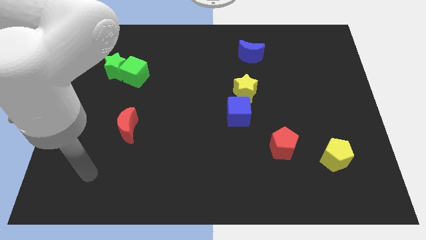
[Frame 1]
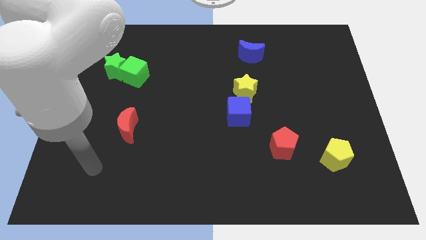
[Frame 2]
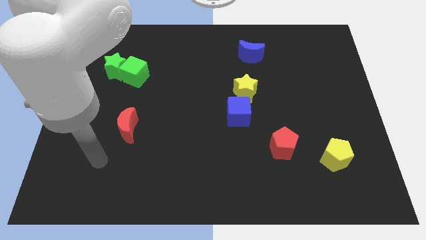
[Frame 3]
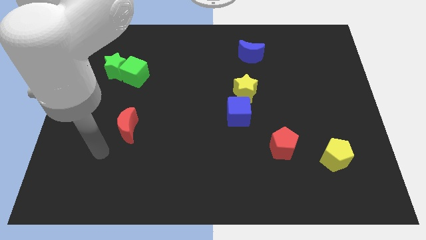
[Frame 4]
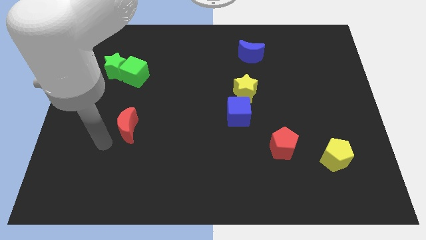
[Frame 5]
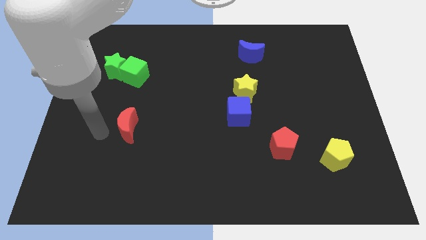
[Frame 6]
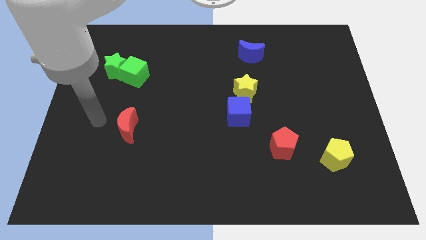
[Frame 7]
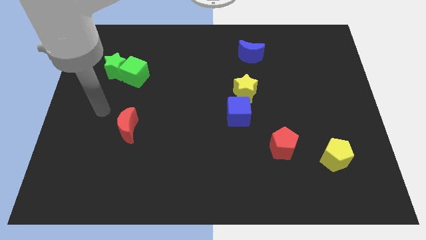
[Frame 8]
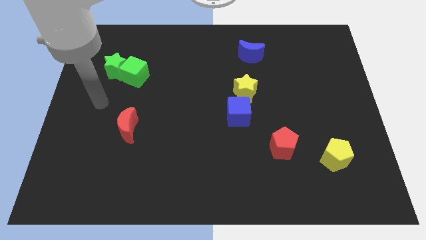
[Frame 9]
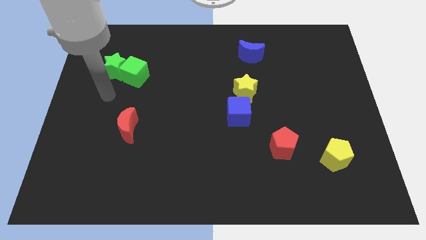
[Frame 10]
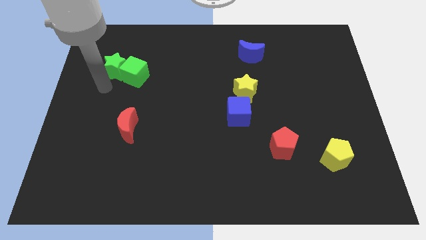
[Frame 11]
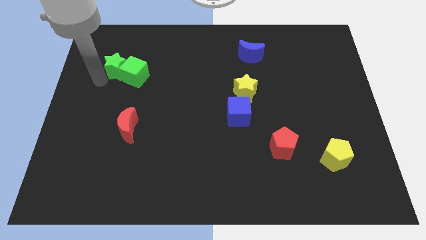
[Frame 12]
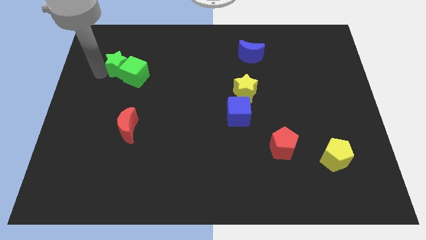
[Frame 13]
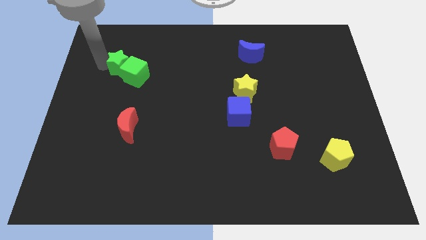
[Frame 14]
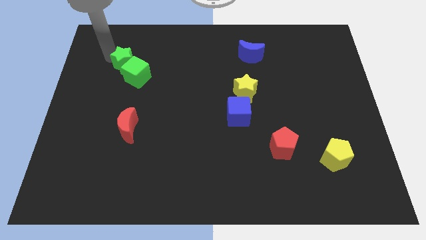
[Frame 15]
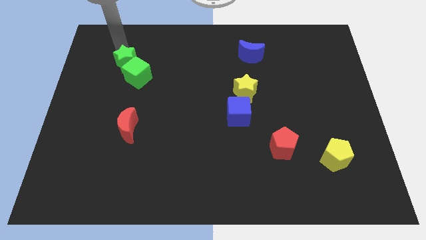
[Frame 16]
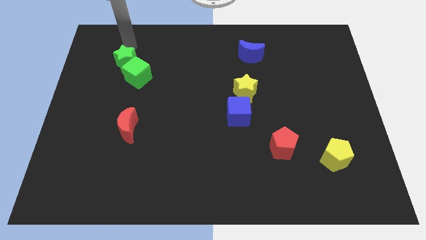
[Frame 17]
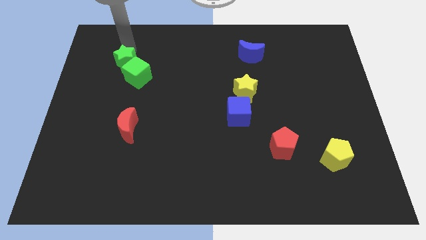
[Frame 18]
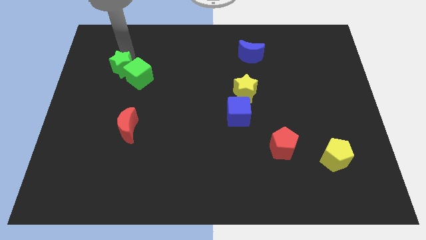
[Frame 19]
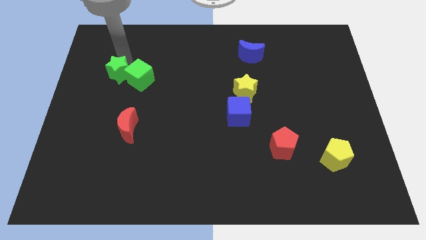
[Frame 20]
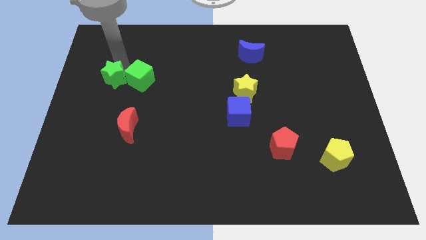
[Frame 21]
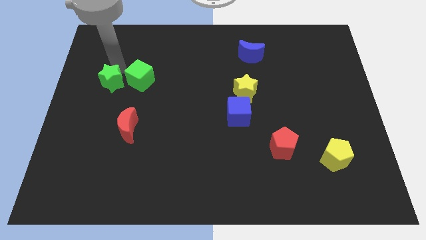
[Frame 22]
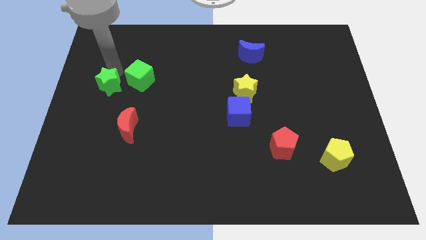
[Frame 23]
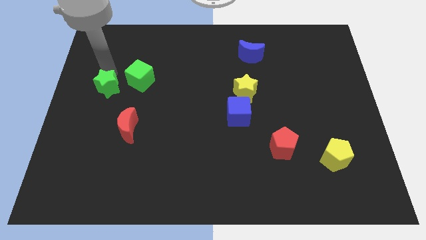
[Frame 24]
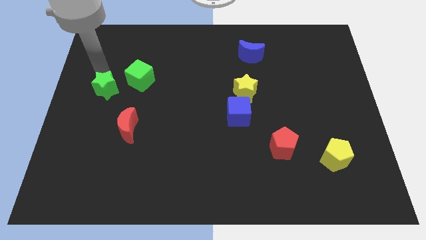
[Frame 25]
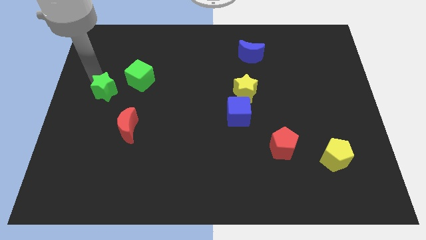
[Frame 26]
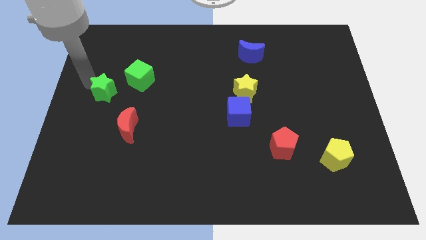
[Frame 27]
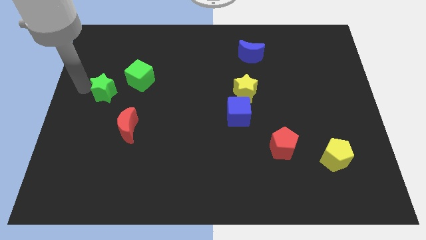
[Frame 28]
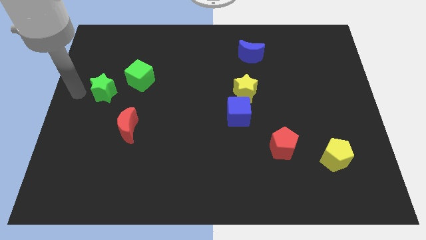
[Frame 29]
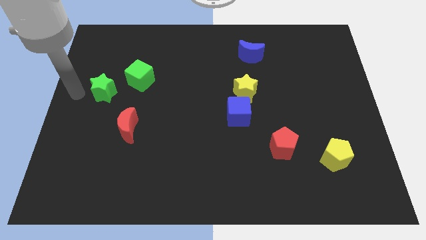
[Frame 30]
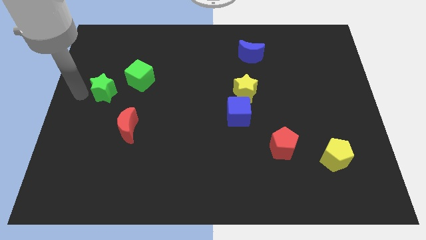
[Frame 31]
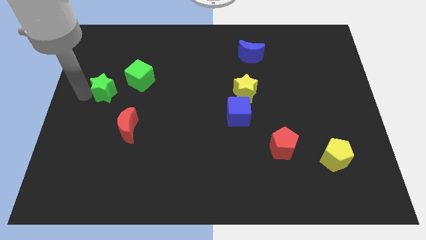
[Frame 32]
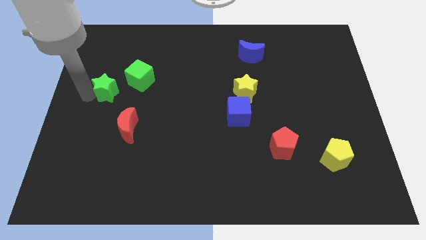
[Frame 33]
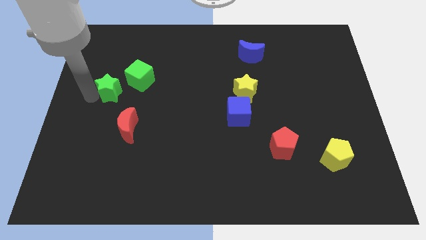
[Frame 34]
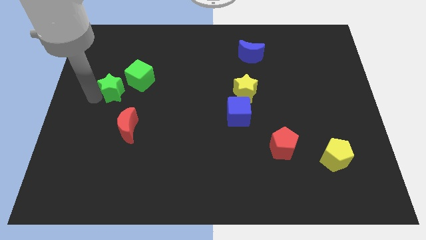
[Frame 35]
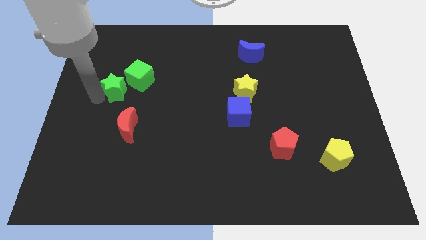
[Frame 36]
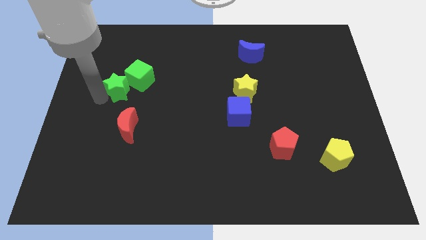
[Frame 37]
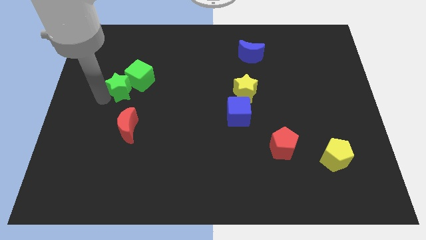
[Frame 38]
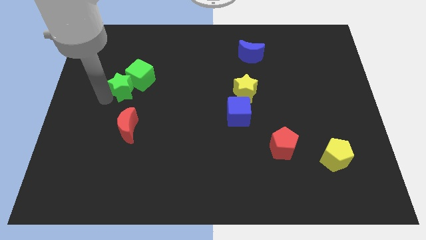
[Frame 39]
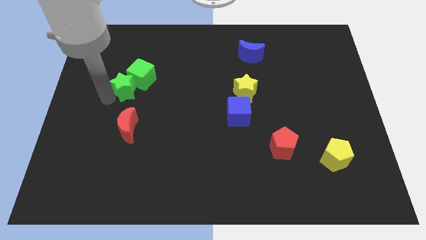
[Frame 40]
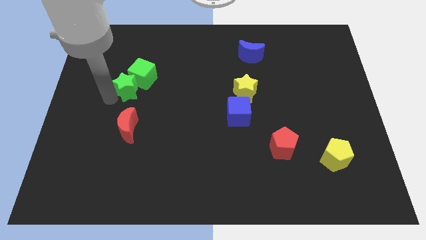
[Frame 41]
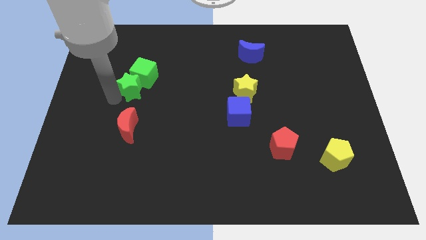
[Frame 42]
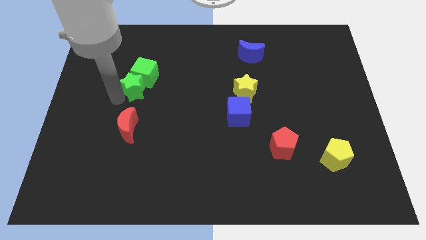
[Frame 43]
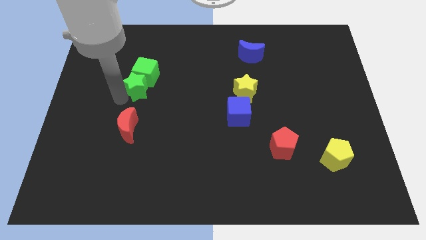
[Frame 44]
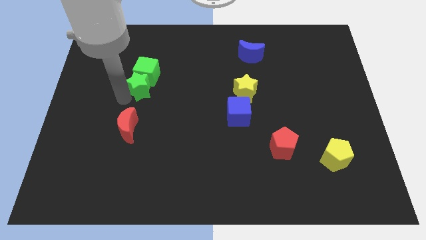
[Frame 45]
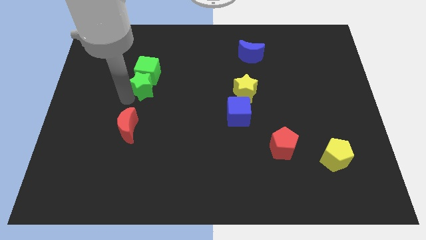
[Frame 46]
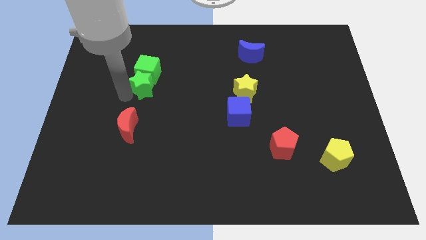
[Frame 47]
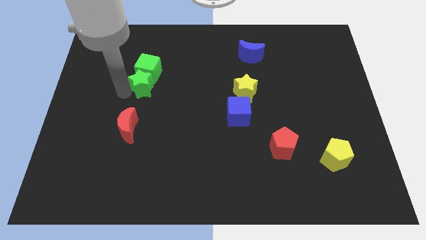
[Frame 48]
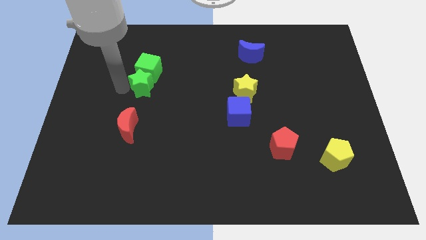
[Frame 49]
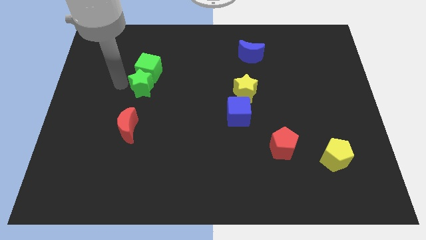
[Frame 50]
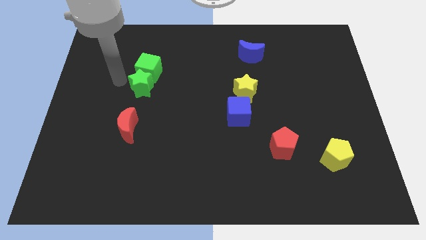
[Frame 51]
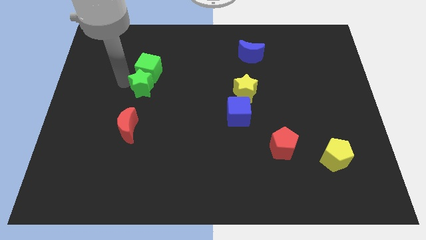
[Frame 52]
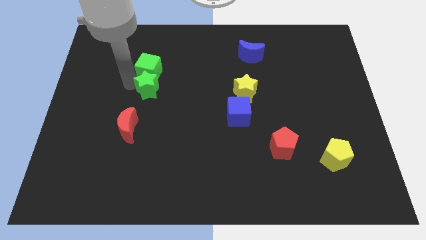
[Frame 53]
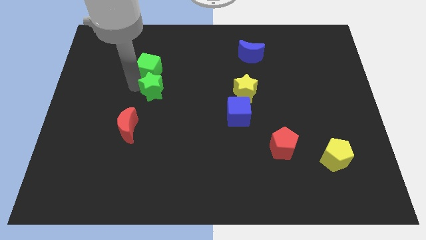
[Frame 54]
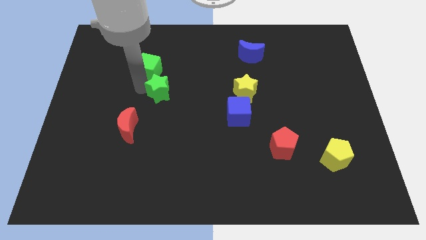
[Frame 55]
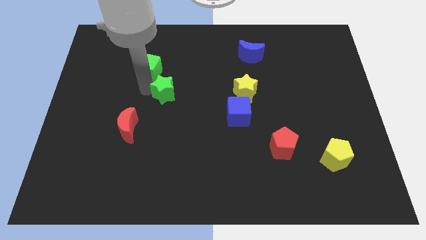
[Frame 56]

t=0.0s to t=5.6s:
move the green star to the middle
